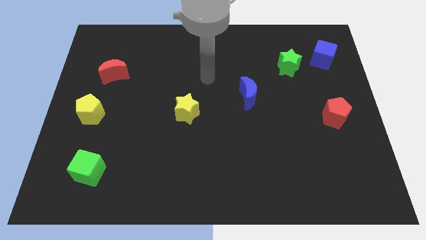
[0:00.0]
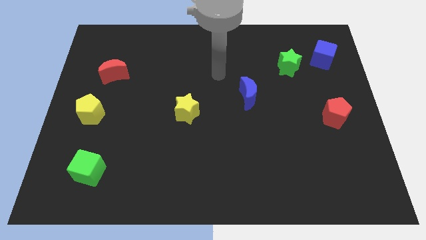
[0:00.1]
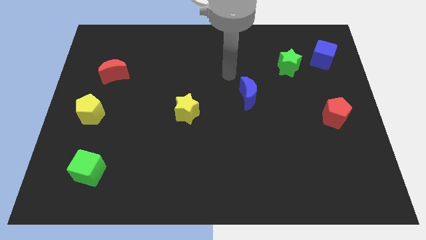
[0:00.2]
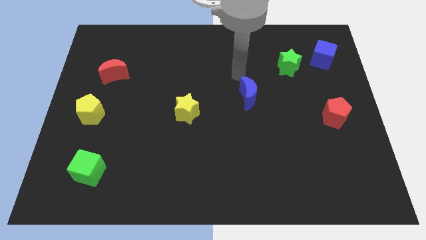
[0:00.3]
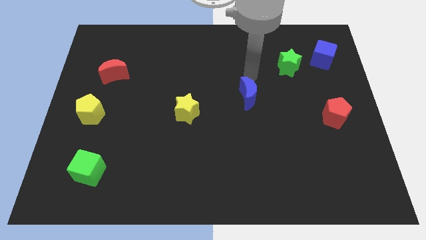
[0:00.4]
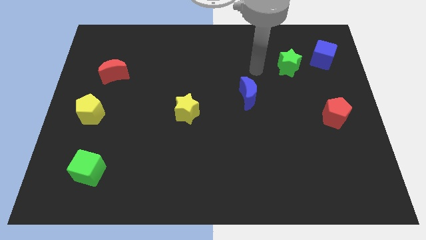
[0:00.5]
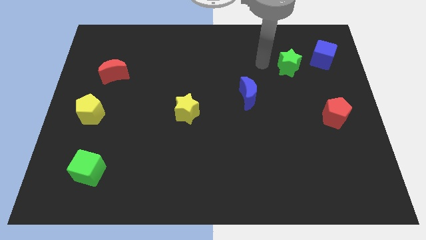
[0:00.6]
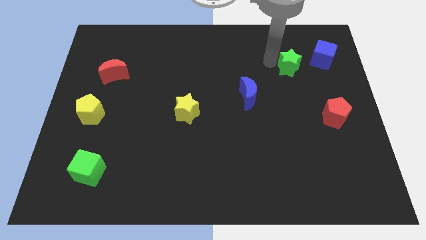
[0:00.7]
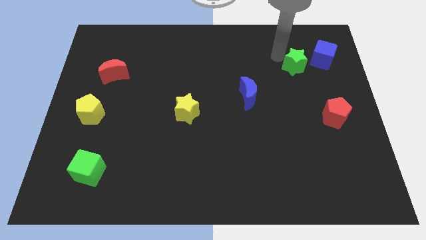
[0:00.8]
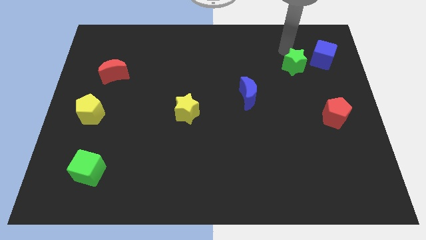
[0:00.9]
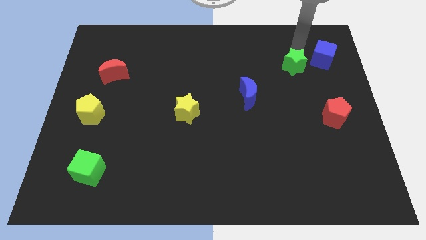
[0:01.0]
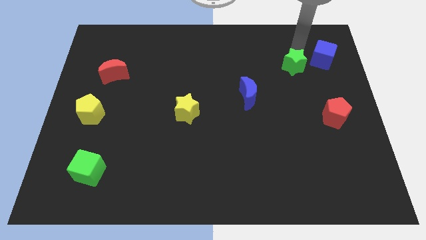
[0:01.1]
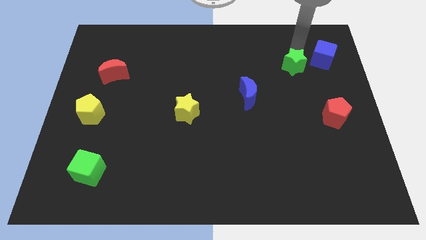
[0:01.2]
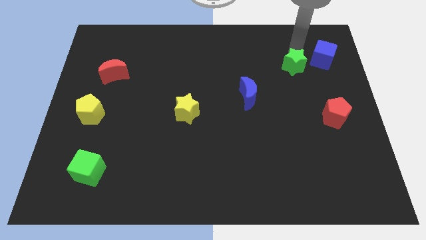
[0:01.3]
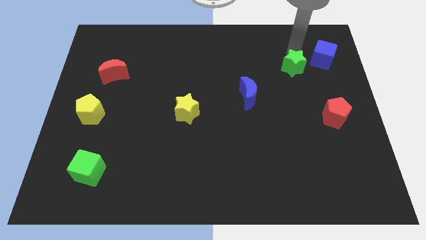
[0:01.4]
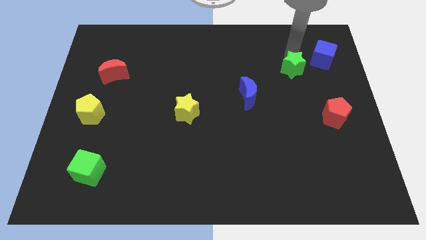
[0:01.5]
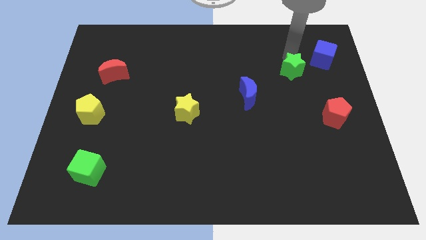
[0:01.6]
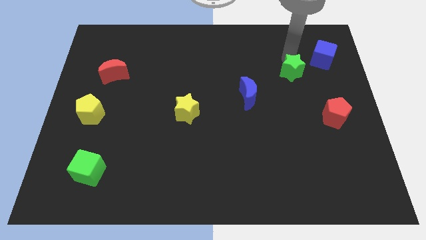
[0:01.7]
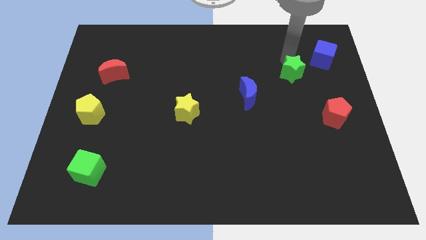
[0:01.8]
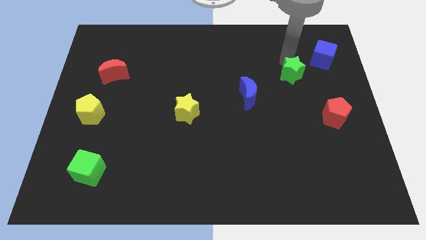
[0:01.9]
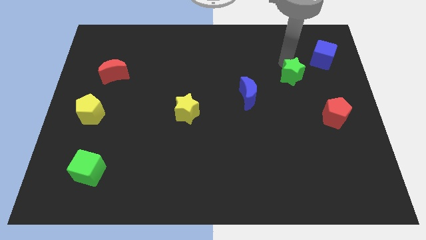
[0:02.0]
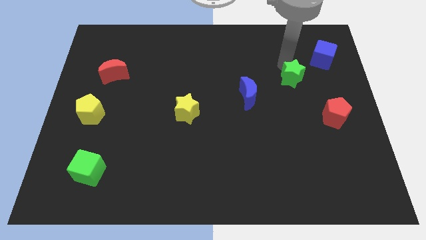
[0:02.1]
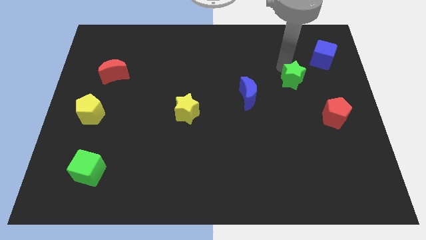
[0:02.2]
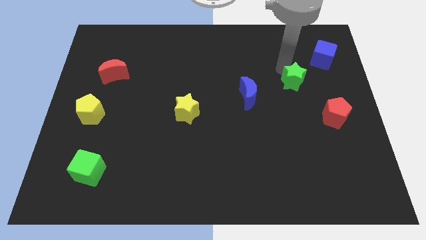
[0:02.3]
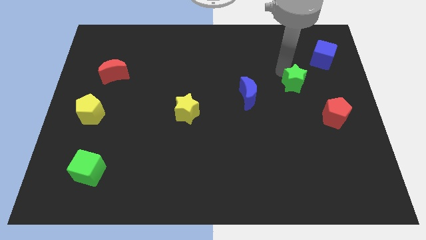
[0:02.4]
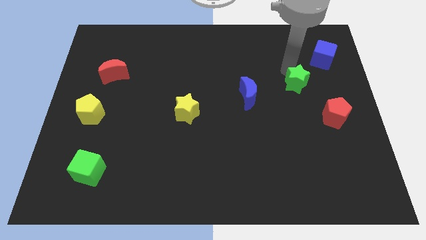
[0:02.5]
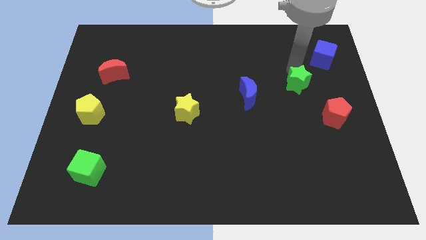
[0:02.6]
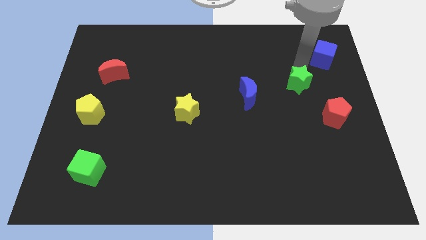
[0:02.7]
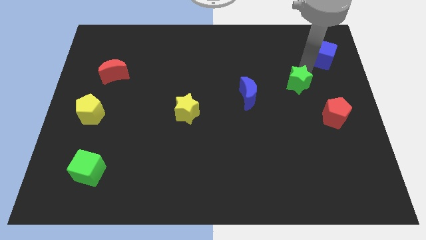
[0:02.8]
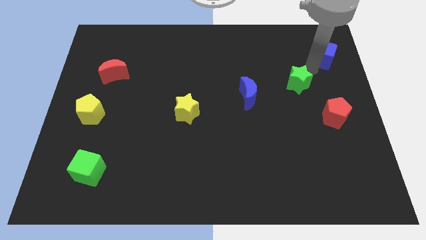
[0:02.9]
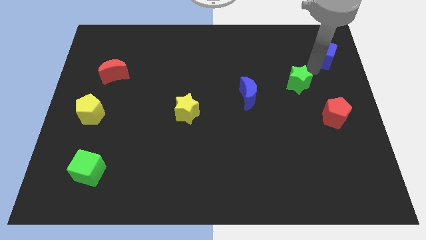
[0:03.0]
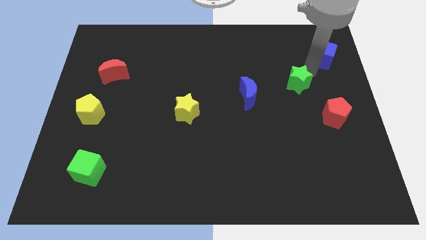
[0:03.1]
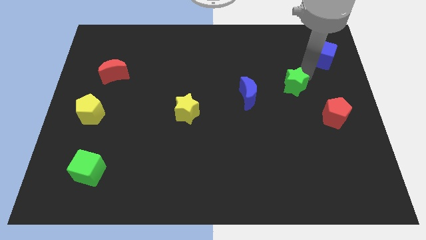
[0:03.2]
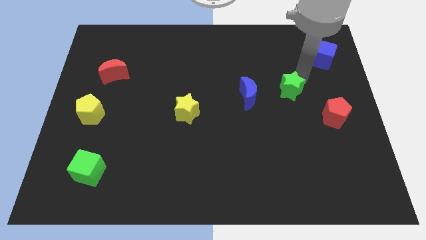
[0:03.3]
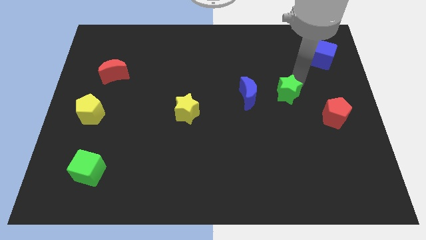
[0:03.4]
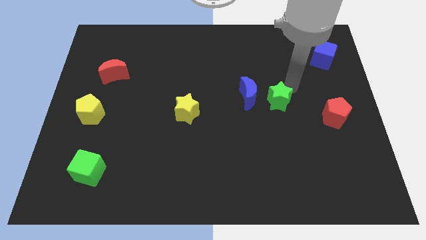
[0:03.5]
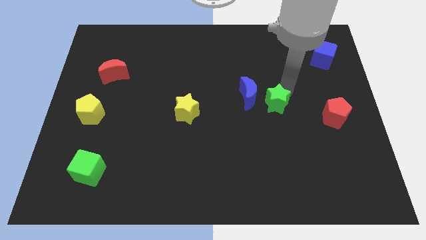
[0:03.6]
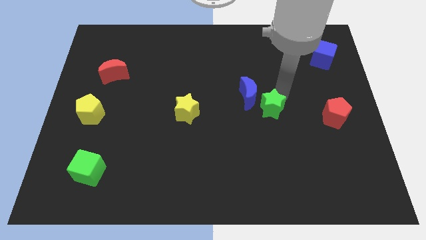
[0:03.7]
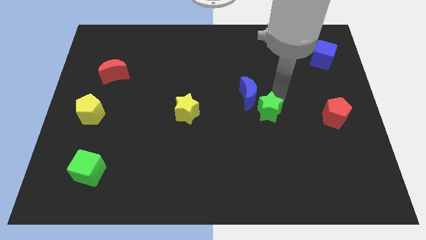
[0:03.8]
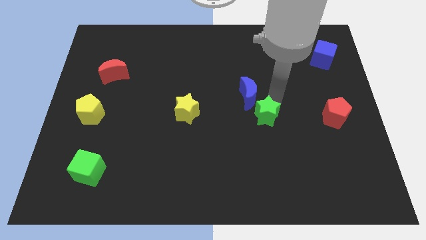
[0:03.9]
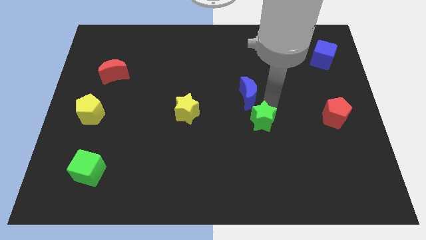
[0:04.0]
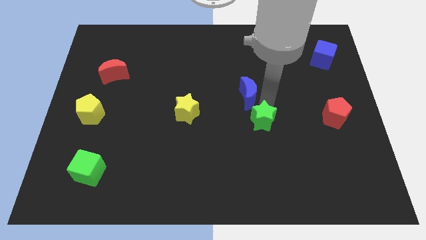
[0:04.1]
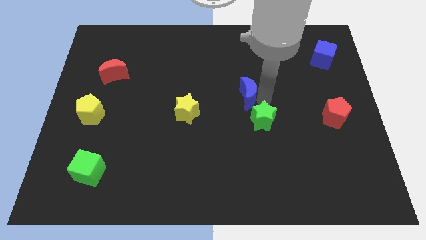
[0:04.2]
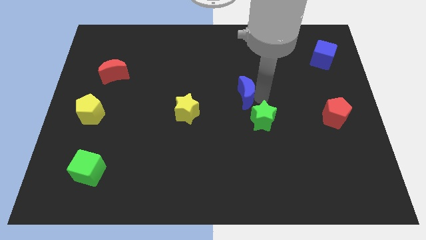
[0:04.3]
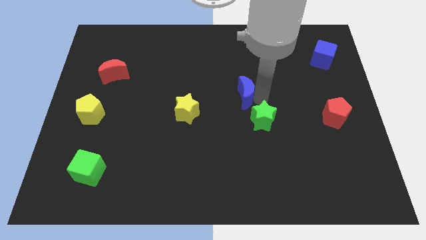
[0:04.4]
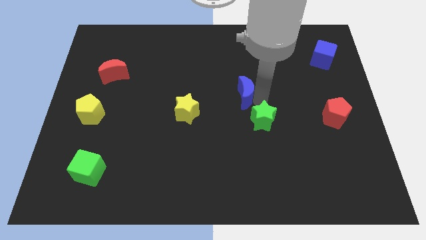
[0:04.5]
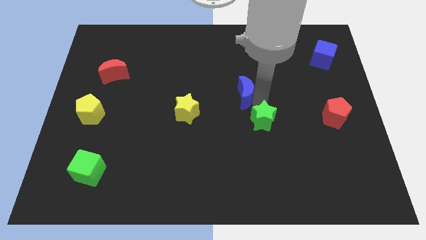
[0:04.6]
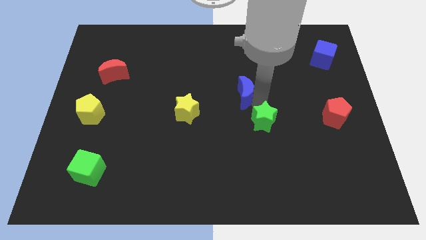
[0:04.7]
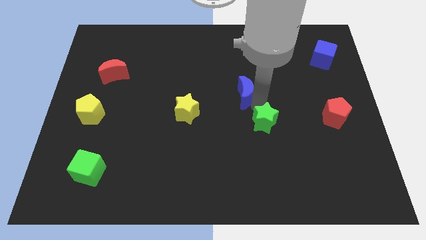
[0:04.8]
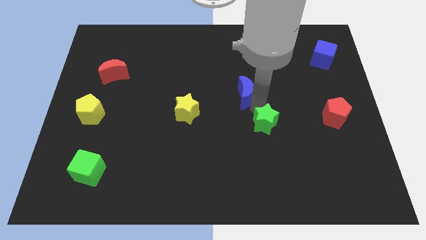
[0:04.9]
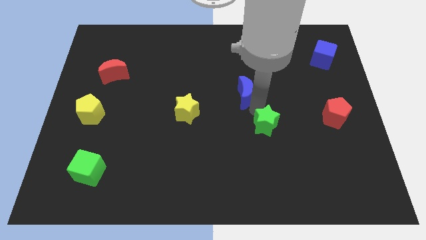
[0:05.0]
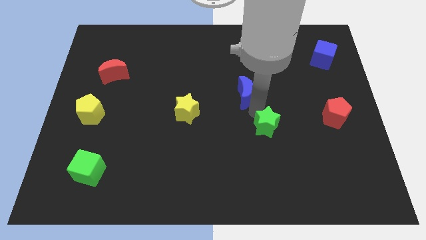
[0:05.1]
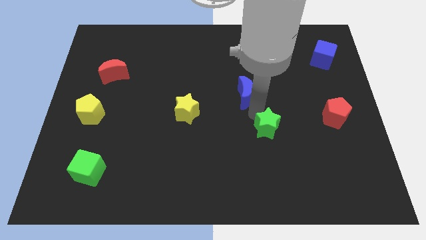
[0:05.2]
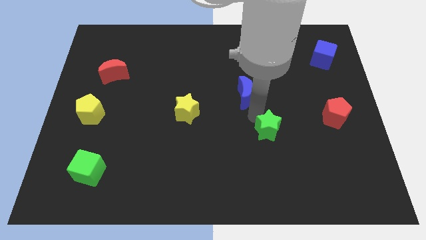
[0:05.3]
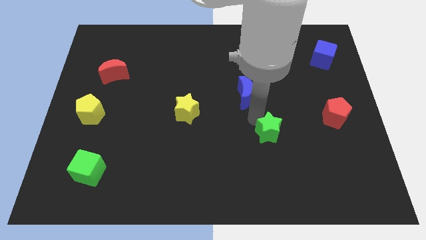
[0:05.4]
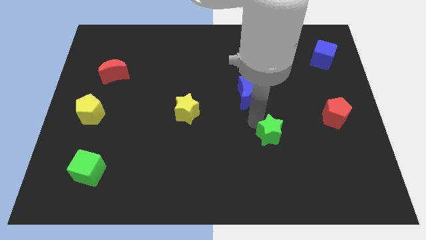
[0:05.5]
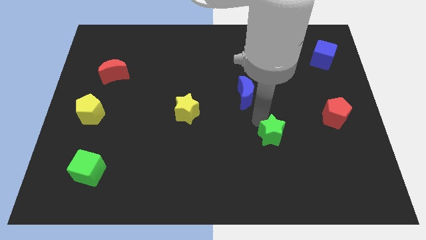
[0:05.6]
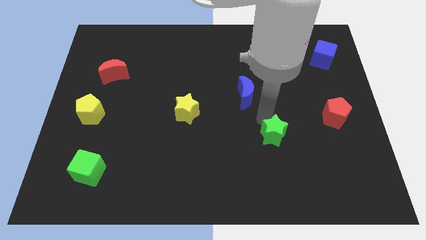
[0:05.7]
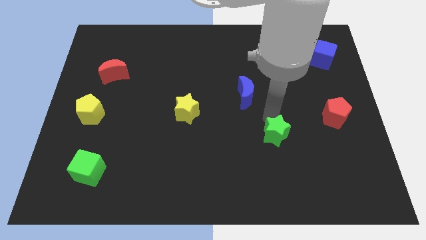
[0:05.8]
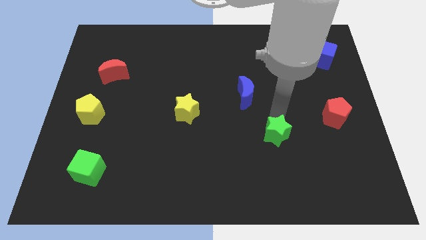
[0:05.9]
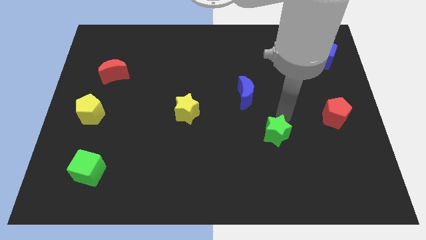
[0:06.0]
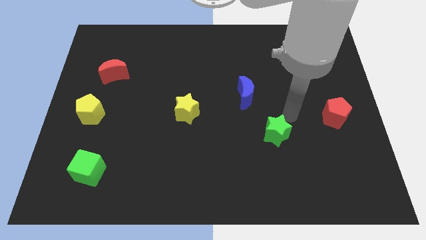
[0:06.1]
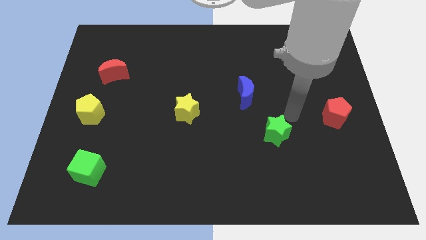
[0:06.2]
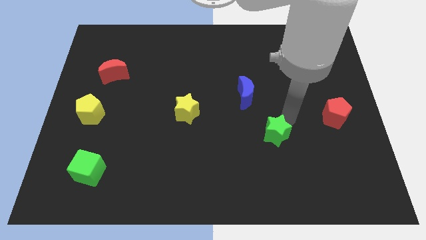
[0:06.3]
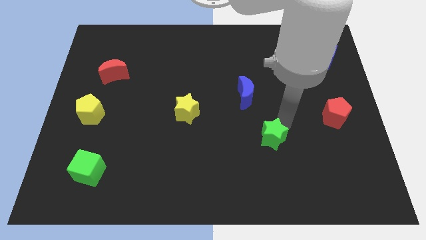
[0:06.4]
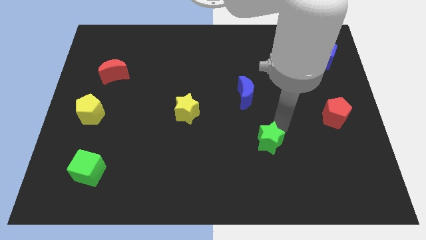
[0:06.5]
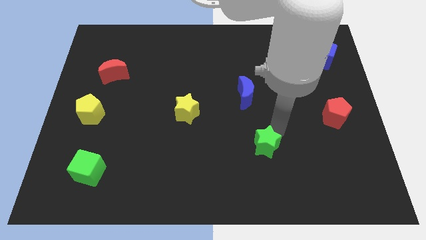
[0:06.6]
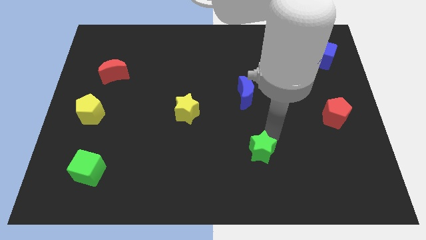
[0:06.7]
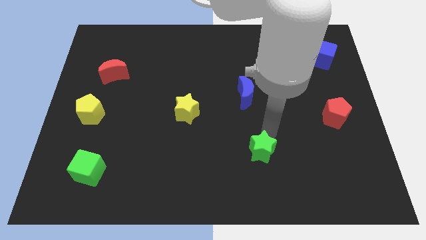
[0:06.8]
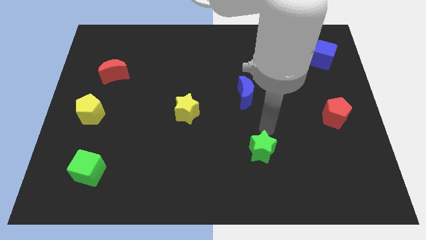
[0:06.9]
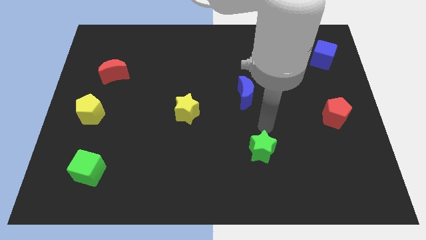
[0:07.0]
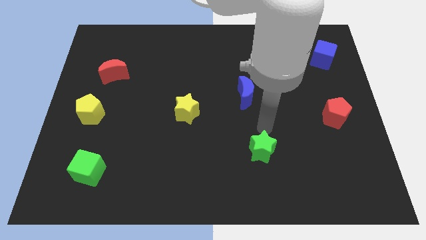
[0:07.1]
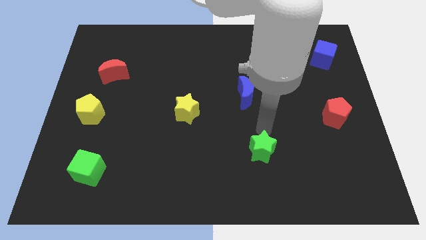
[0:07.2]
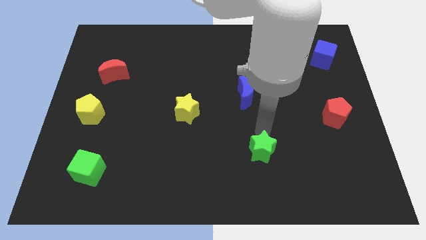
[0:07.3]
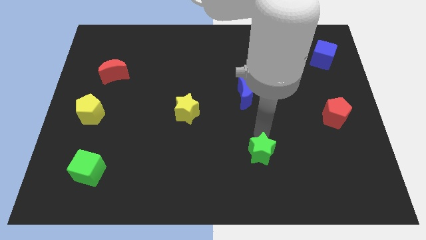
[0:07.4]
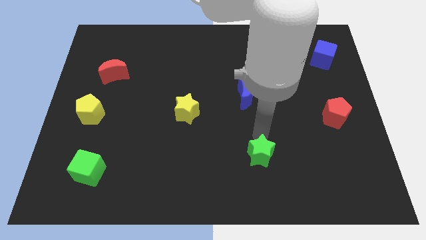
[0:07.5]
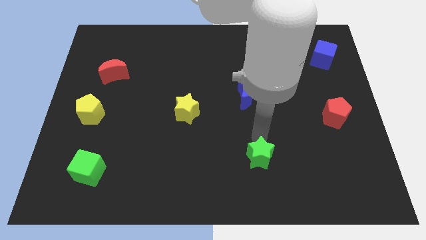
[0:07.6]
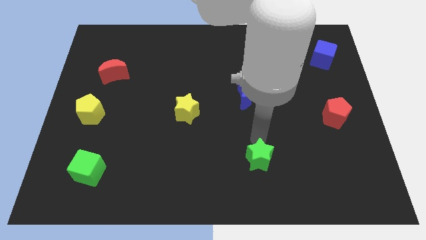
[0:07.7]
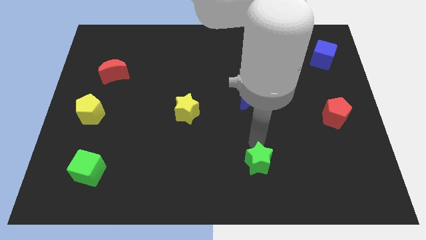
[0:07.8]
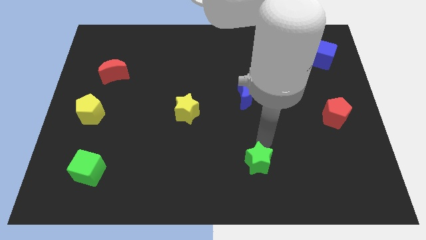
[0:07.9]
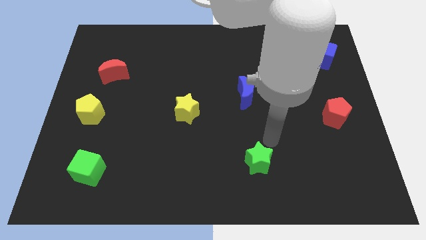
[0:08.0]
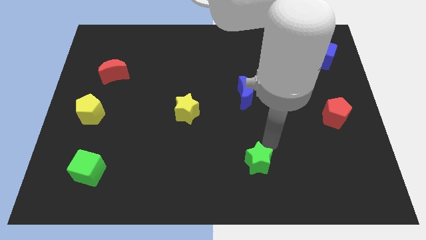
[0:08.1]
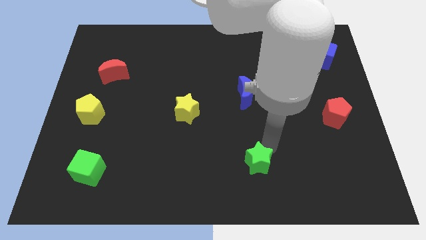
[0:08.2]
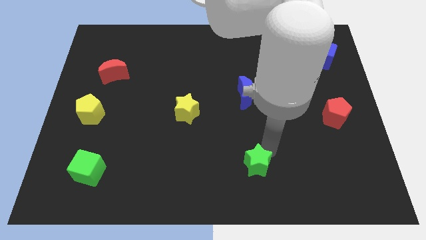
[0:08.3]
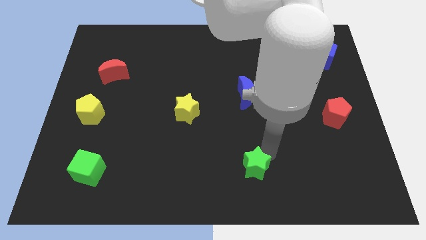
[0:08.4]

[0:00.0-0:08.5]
push the green star to the bottom side
